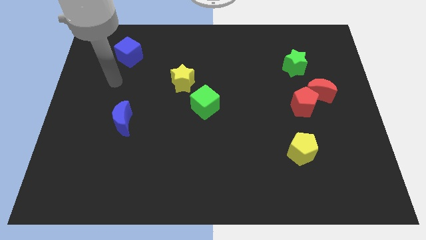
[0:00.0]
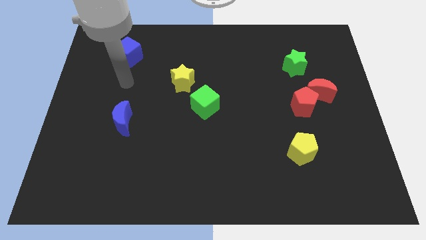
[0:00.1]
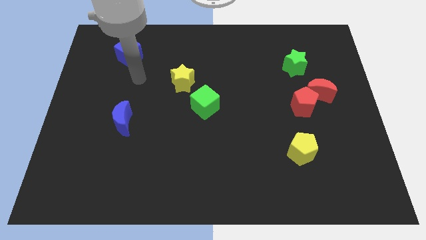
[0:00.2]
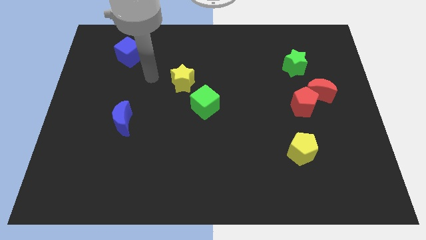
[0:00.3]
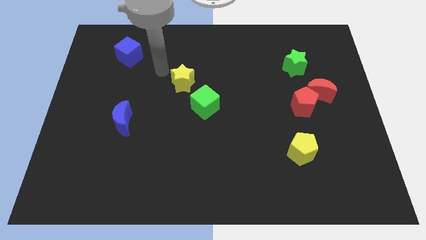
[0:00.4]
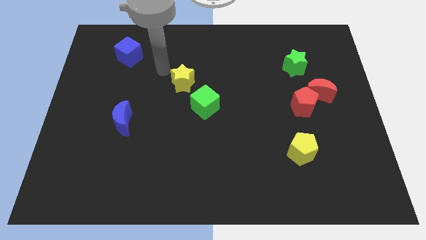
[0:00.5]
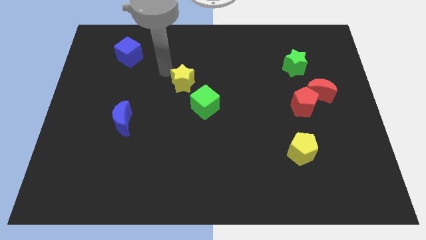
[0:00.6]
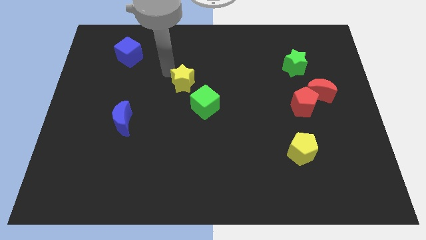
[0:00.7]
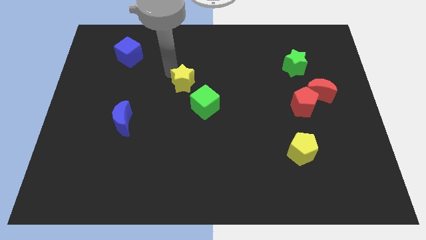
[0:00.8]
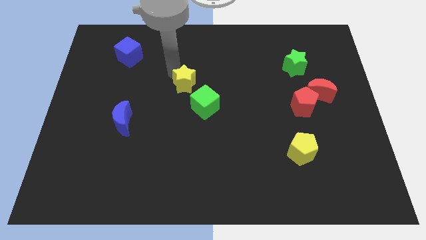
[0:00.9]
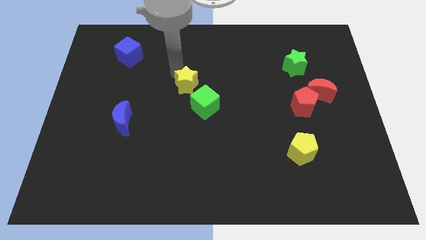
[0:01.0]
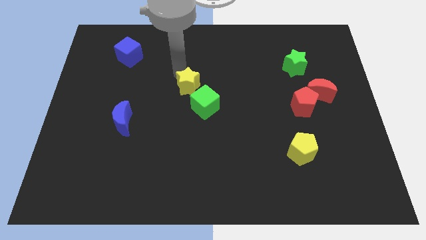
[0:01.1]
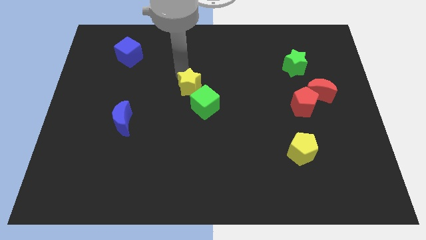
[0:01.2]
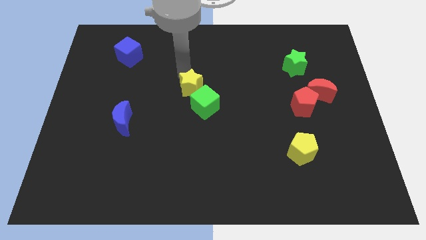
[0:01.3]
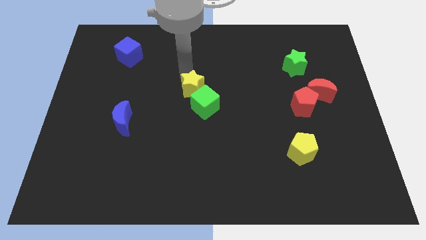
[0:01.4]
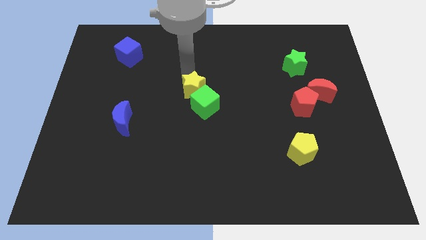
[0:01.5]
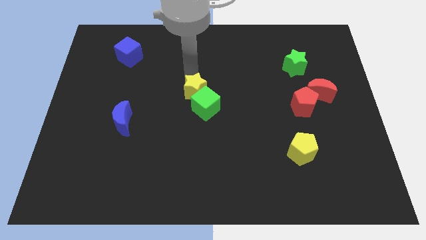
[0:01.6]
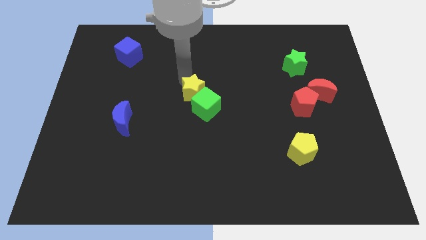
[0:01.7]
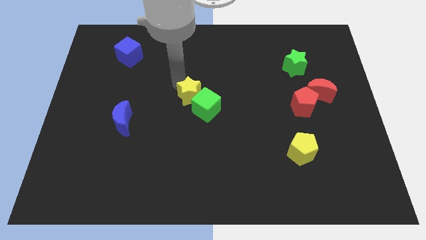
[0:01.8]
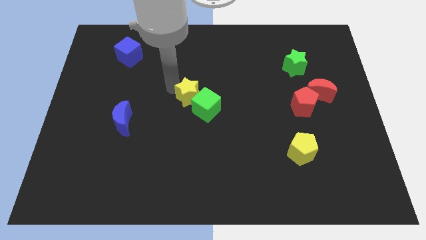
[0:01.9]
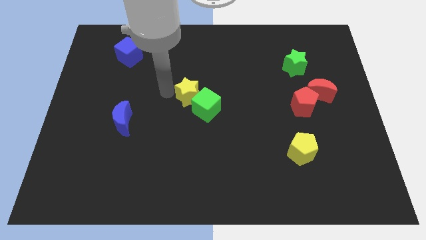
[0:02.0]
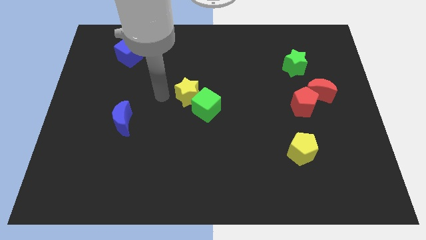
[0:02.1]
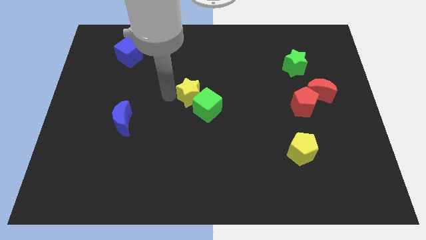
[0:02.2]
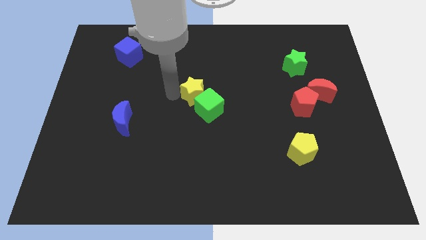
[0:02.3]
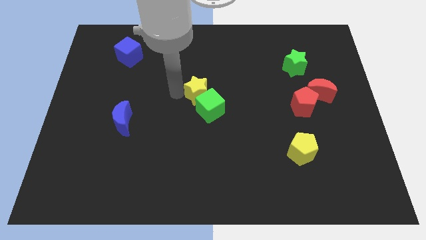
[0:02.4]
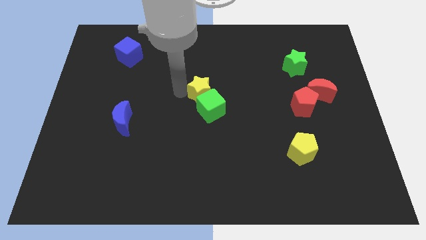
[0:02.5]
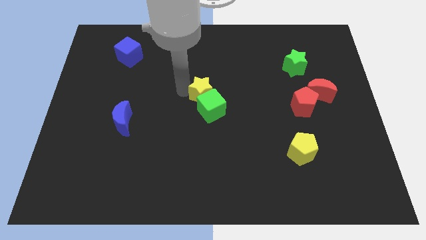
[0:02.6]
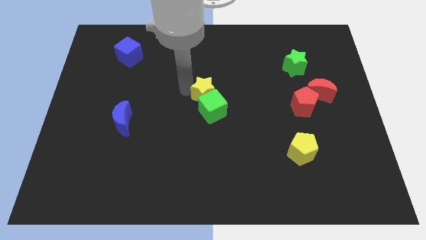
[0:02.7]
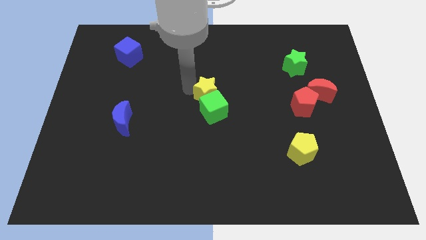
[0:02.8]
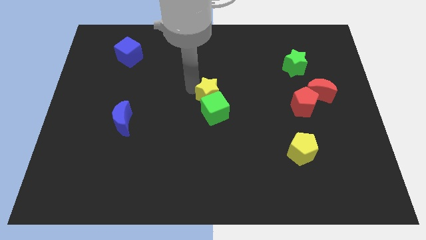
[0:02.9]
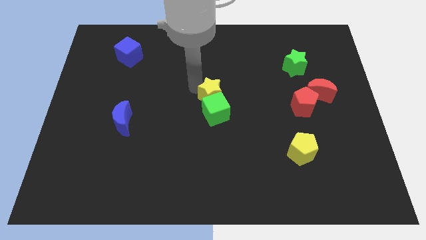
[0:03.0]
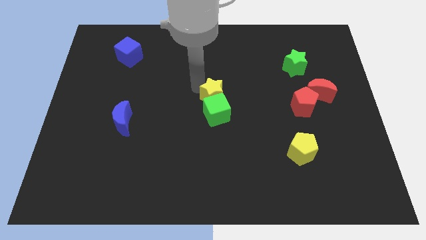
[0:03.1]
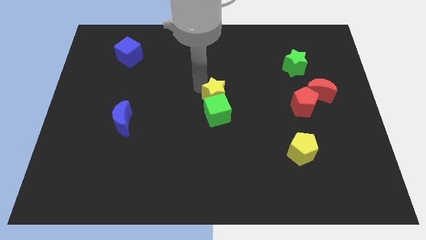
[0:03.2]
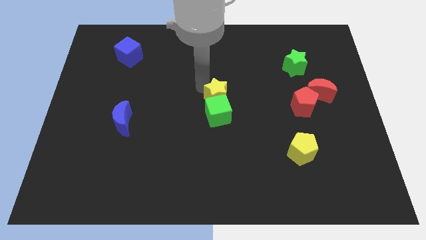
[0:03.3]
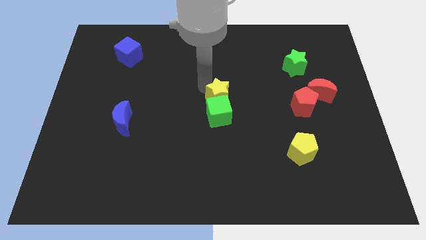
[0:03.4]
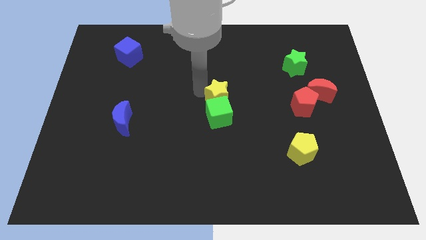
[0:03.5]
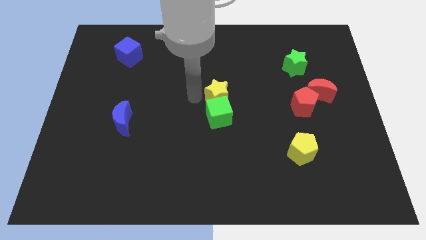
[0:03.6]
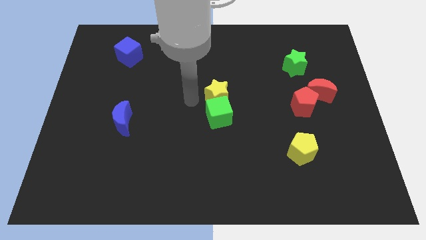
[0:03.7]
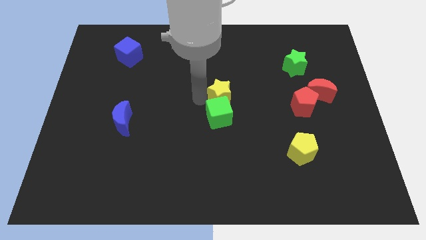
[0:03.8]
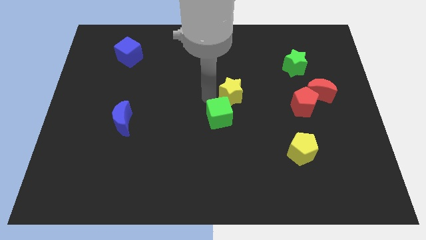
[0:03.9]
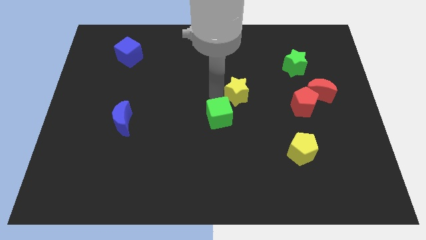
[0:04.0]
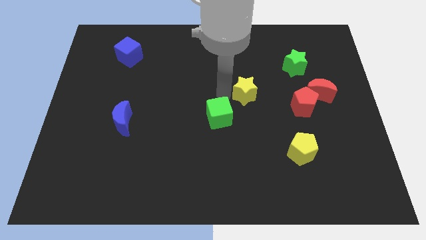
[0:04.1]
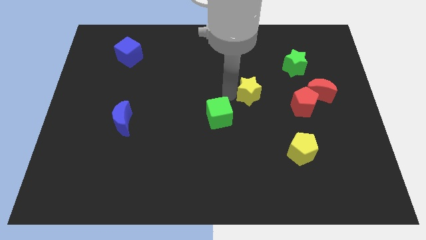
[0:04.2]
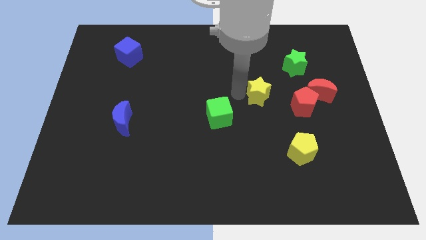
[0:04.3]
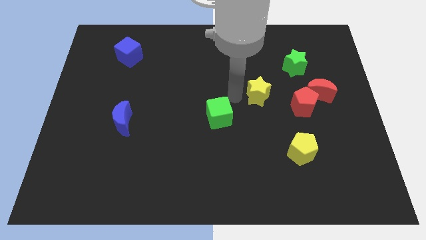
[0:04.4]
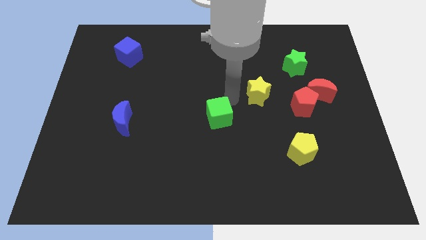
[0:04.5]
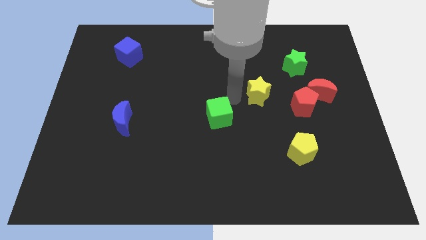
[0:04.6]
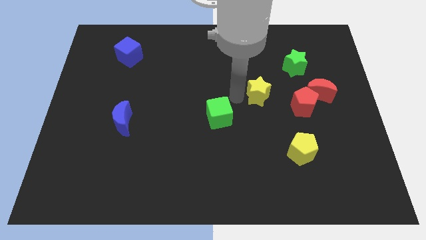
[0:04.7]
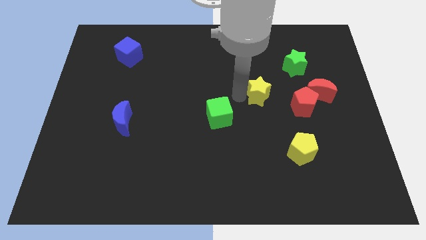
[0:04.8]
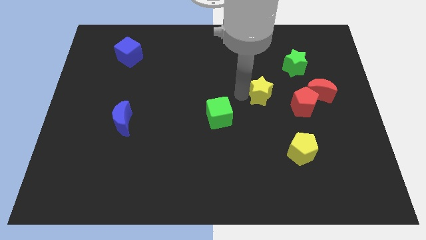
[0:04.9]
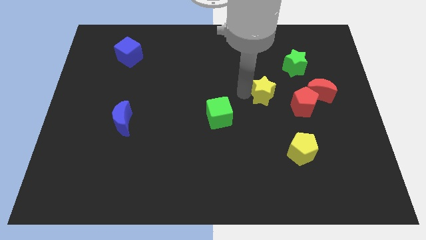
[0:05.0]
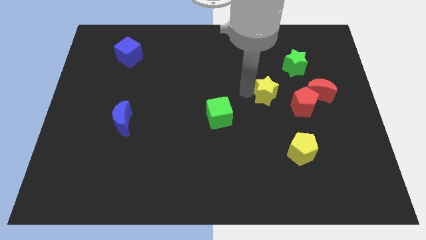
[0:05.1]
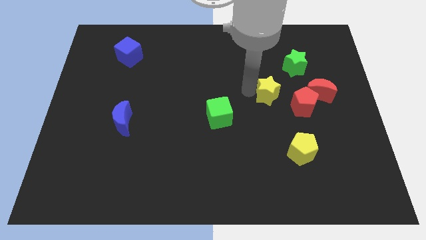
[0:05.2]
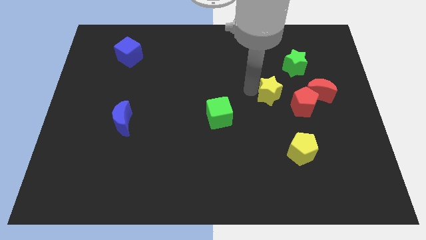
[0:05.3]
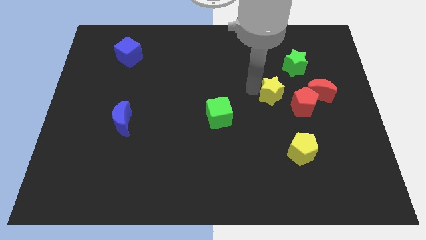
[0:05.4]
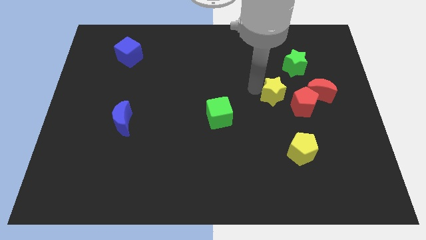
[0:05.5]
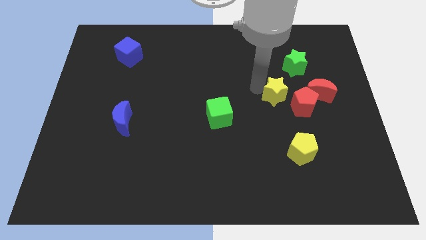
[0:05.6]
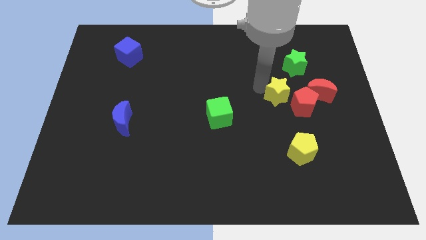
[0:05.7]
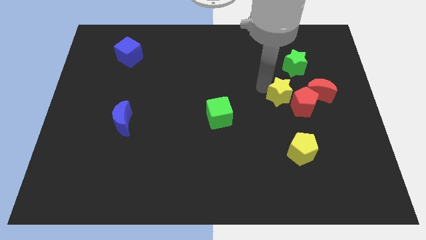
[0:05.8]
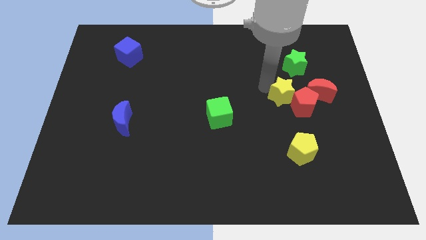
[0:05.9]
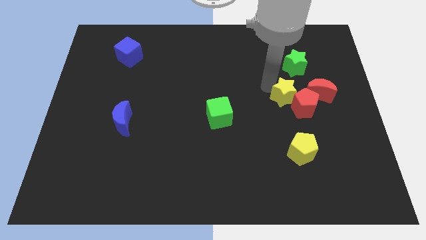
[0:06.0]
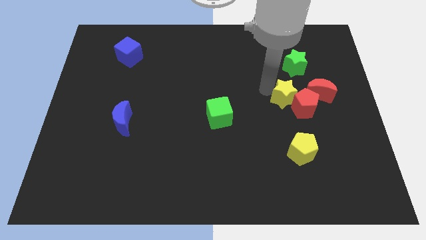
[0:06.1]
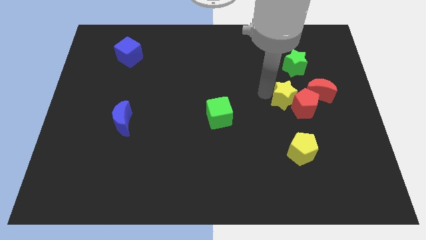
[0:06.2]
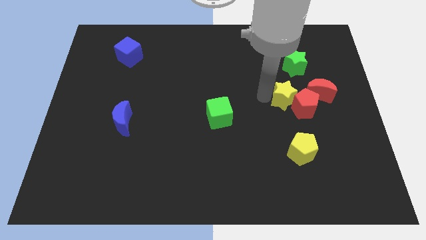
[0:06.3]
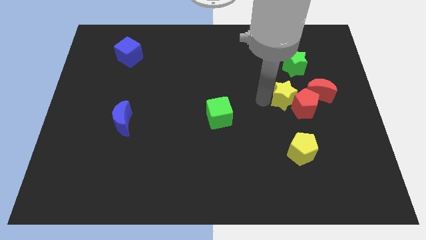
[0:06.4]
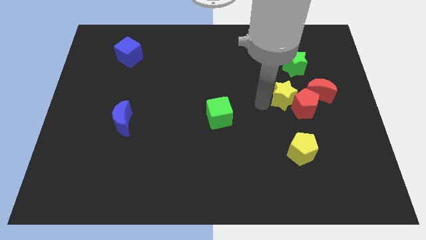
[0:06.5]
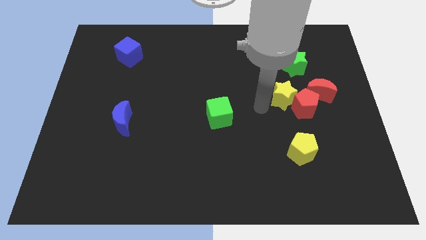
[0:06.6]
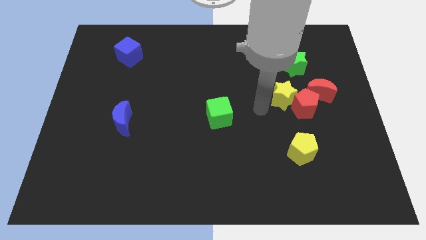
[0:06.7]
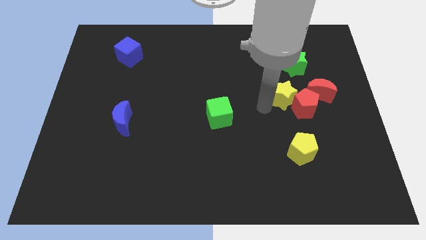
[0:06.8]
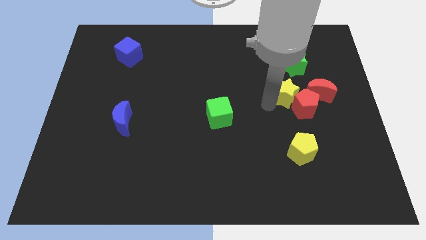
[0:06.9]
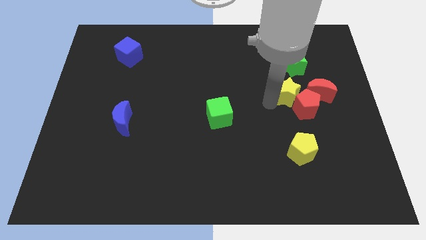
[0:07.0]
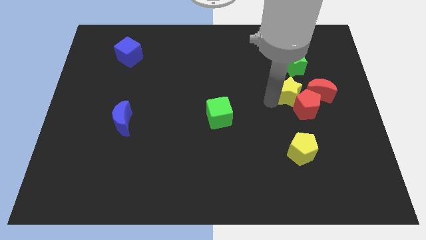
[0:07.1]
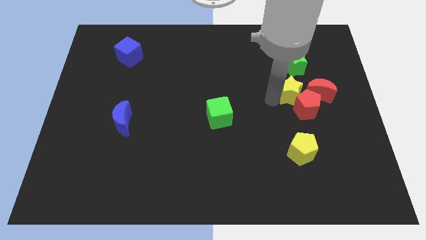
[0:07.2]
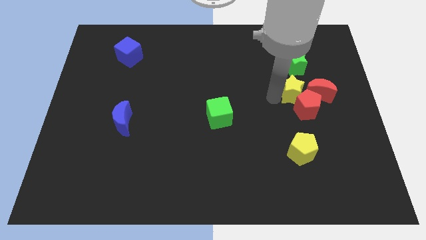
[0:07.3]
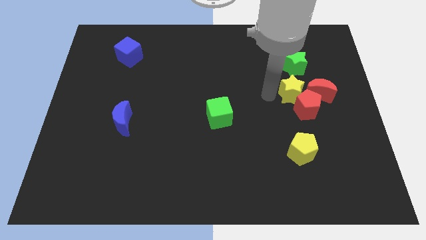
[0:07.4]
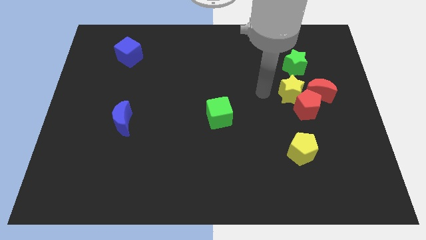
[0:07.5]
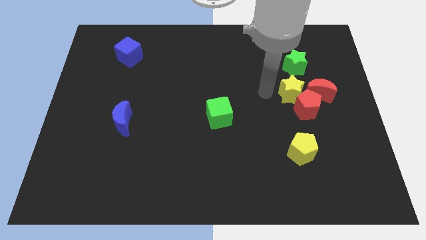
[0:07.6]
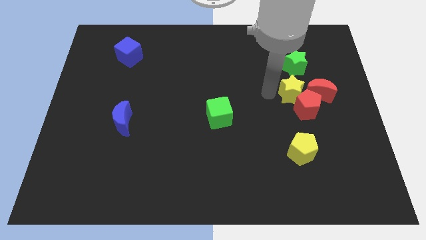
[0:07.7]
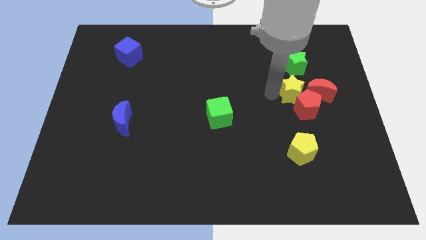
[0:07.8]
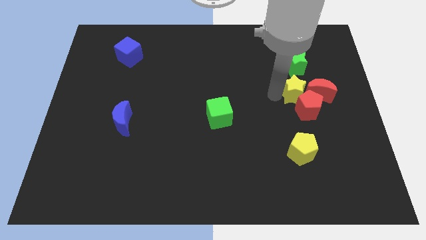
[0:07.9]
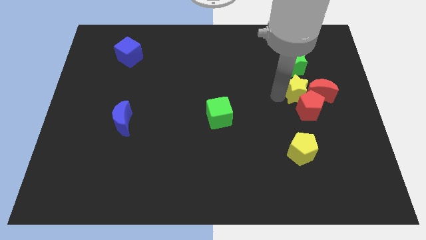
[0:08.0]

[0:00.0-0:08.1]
move the yellow star close to the red moon
